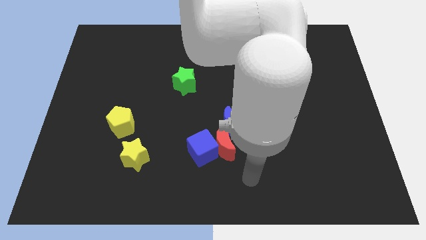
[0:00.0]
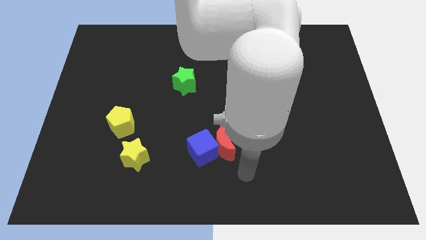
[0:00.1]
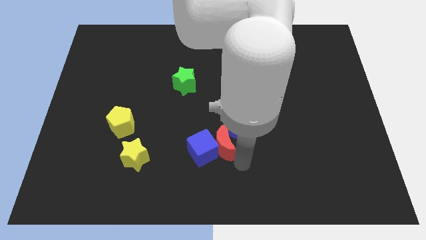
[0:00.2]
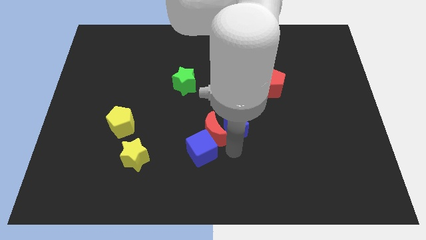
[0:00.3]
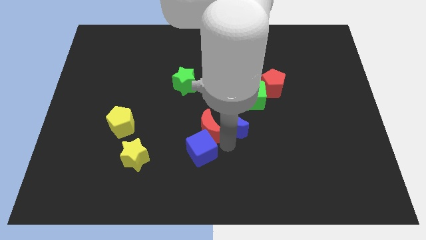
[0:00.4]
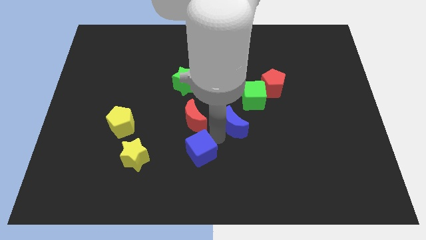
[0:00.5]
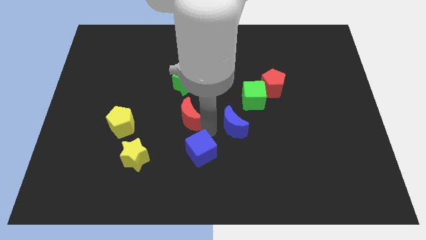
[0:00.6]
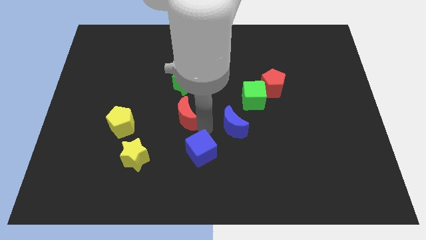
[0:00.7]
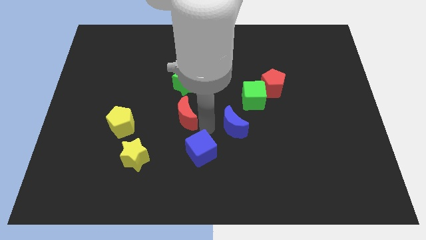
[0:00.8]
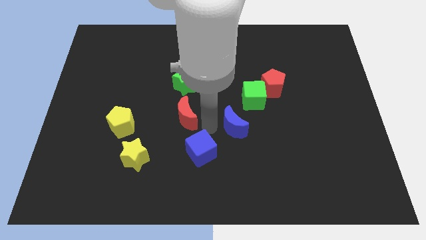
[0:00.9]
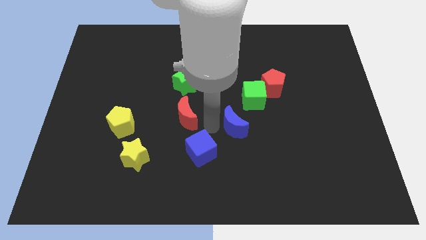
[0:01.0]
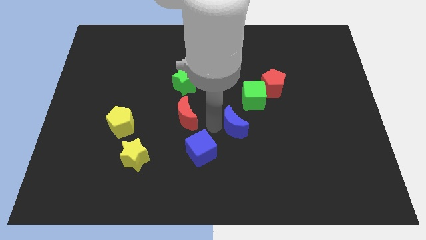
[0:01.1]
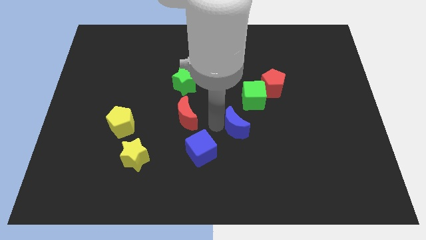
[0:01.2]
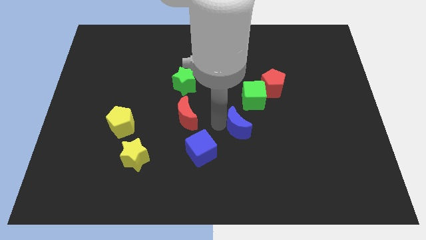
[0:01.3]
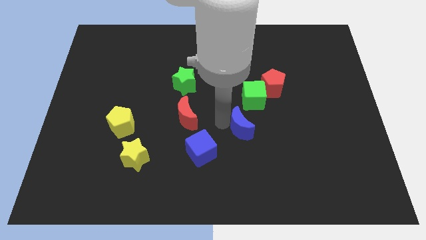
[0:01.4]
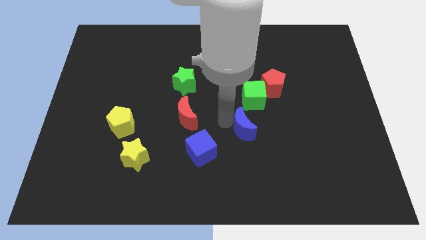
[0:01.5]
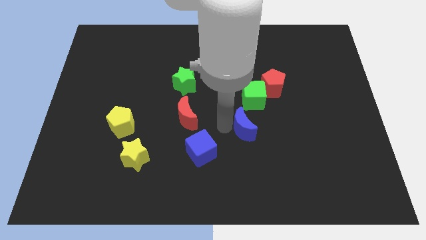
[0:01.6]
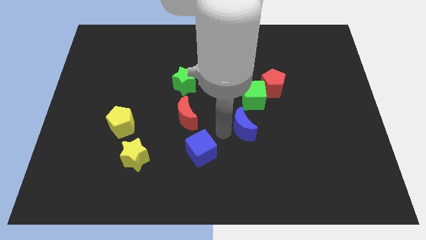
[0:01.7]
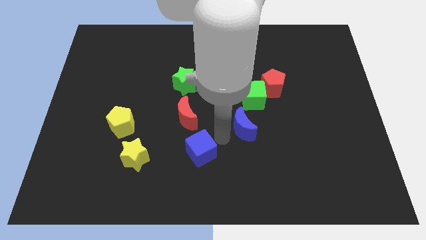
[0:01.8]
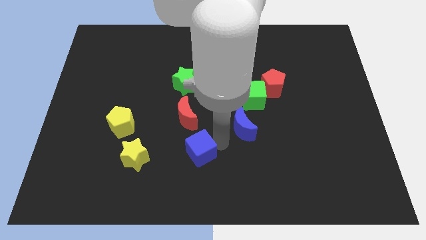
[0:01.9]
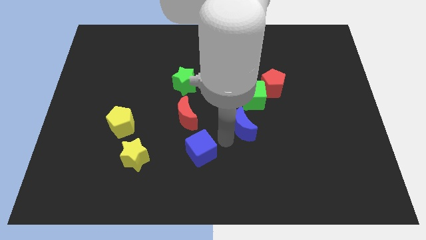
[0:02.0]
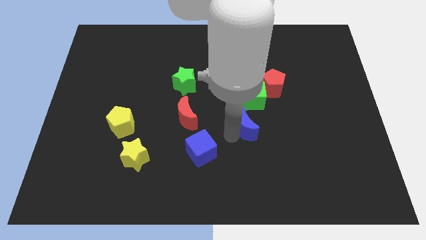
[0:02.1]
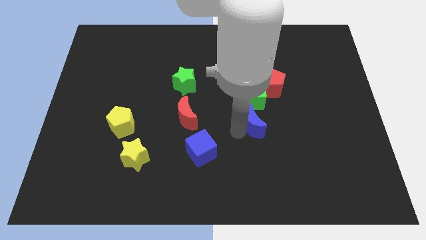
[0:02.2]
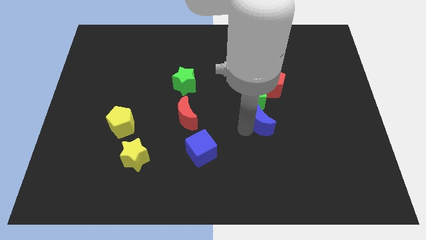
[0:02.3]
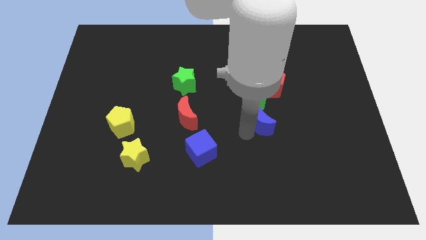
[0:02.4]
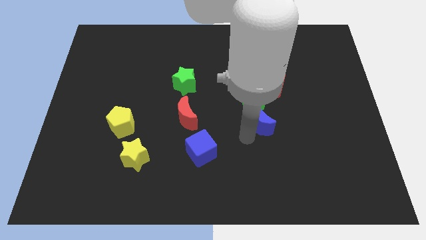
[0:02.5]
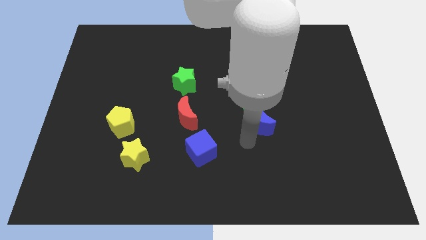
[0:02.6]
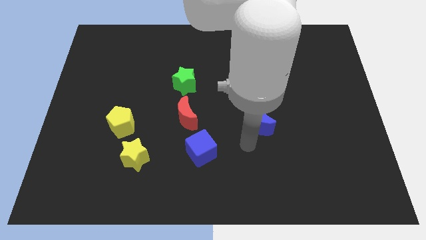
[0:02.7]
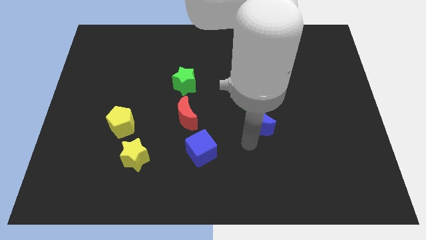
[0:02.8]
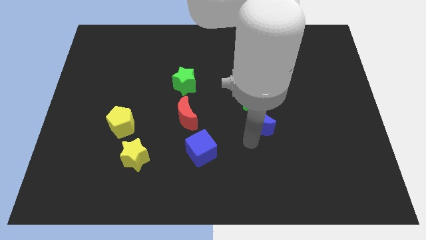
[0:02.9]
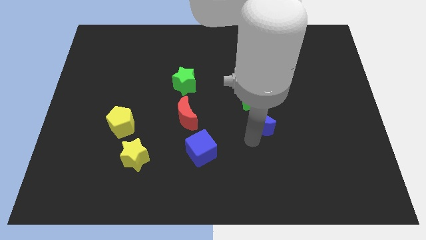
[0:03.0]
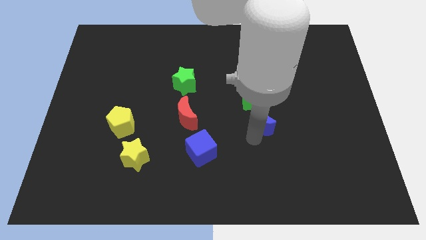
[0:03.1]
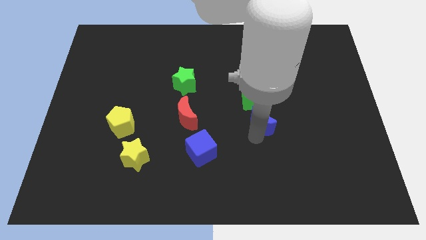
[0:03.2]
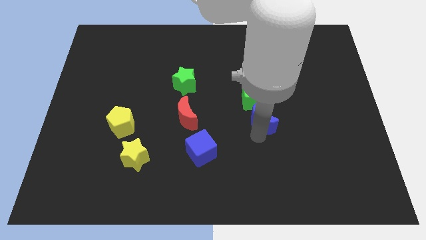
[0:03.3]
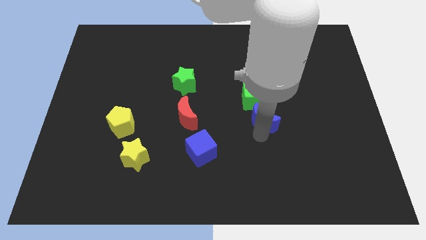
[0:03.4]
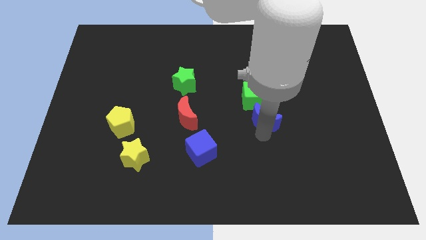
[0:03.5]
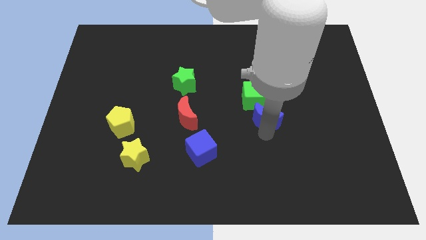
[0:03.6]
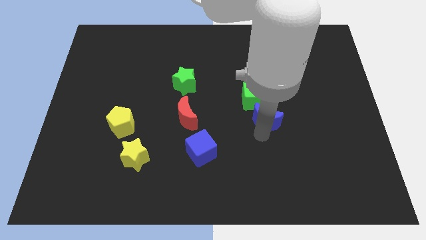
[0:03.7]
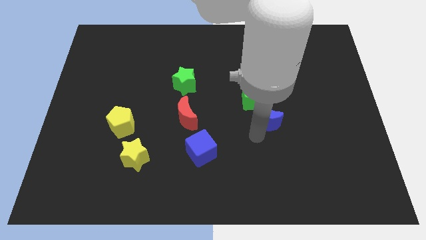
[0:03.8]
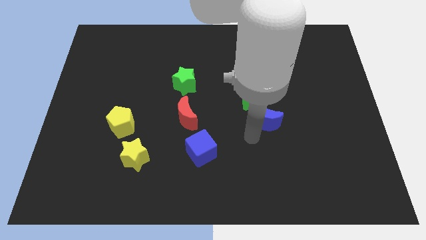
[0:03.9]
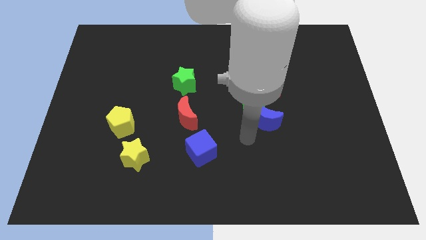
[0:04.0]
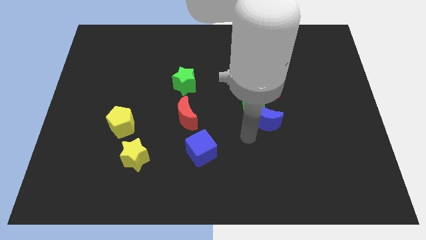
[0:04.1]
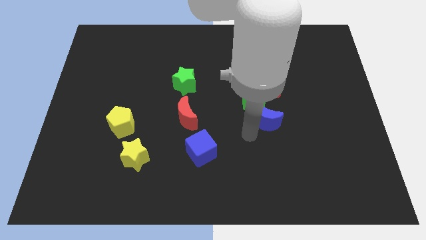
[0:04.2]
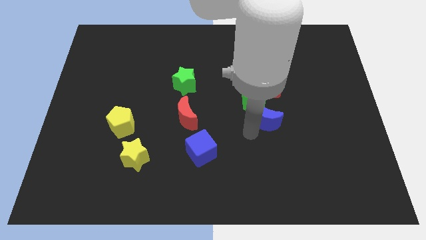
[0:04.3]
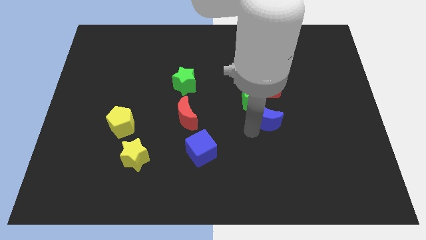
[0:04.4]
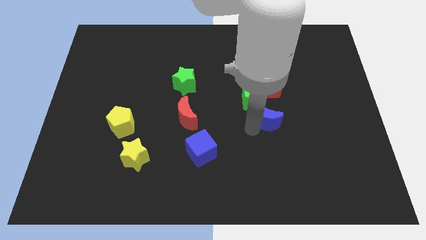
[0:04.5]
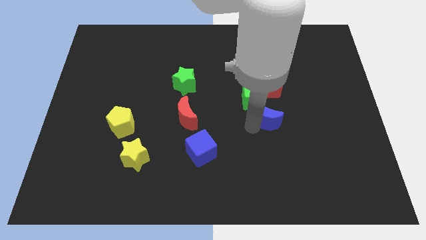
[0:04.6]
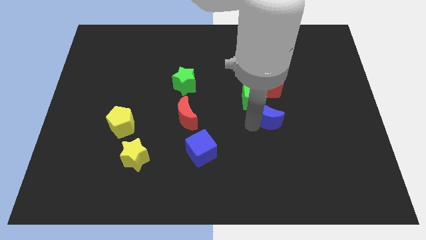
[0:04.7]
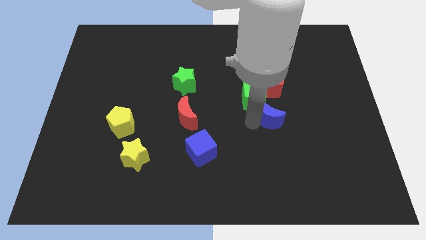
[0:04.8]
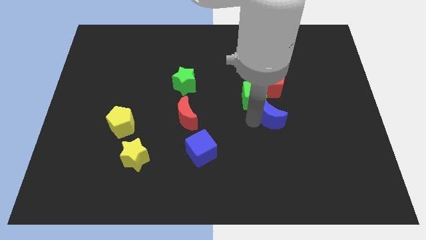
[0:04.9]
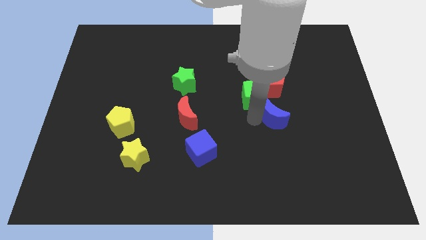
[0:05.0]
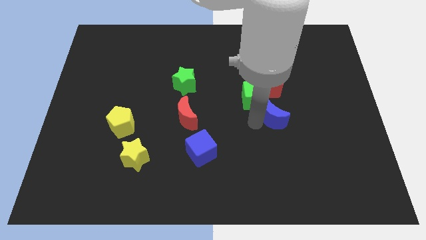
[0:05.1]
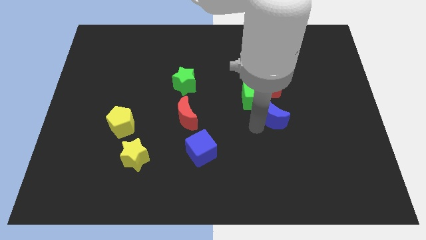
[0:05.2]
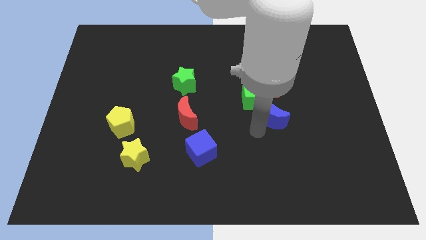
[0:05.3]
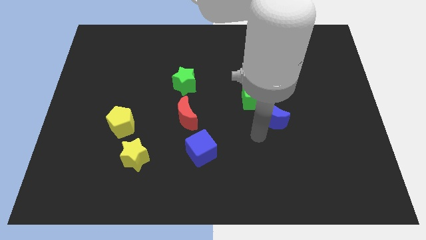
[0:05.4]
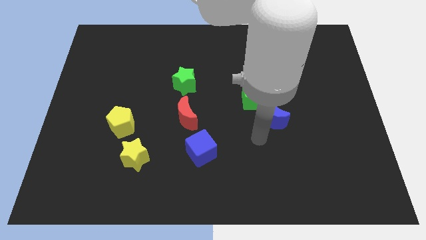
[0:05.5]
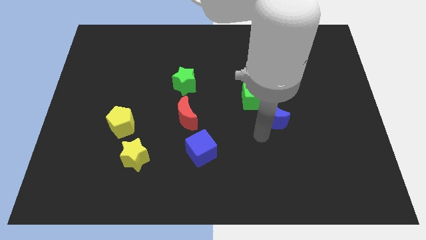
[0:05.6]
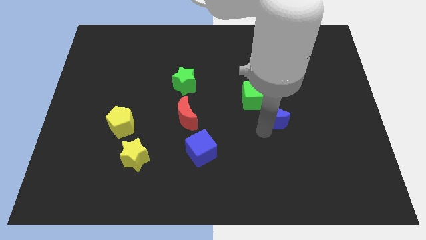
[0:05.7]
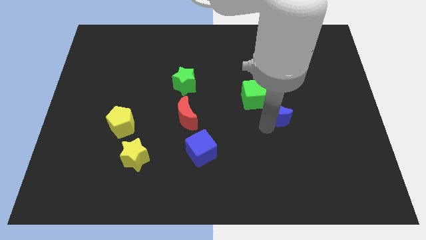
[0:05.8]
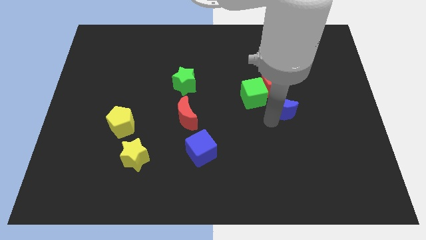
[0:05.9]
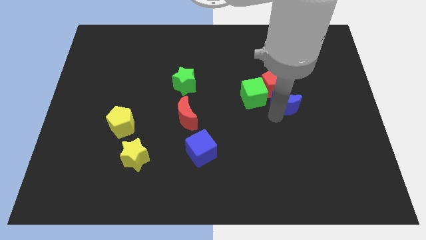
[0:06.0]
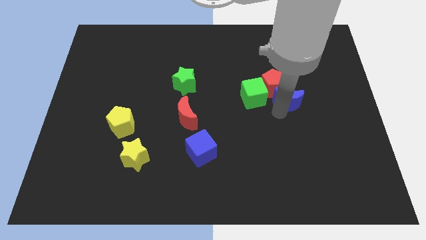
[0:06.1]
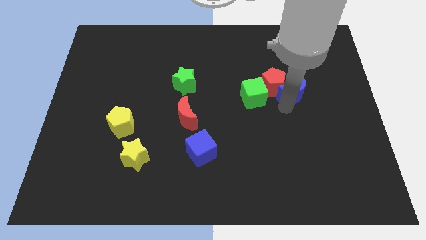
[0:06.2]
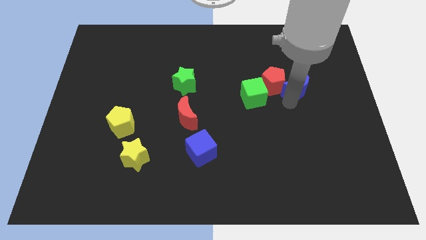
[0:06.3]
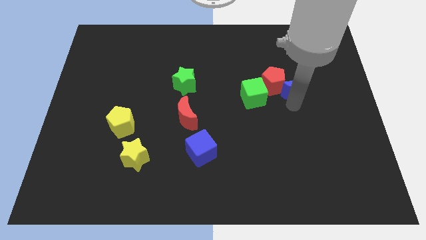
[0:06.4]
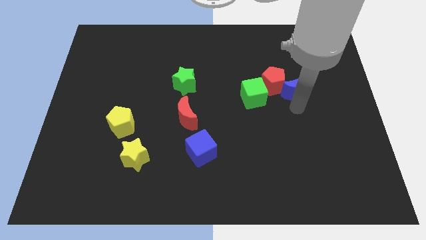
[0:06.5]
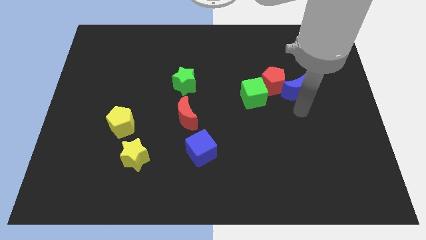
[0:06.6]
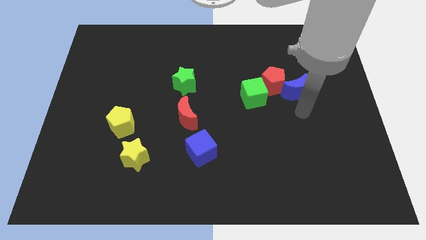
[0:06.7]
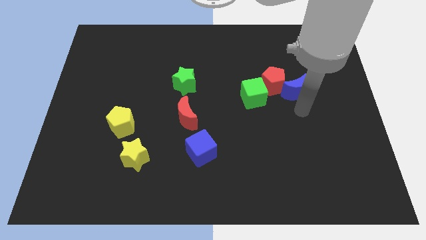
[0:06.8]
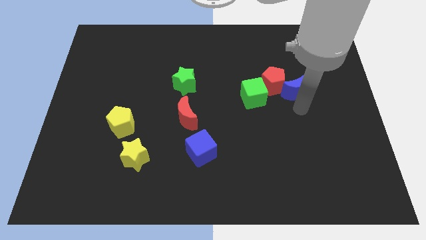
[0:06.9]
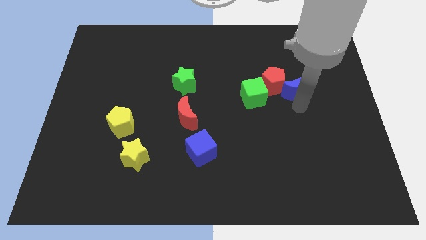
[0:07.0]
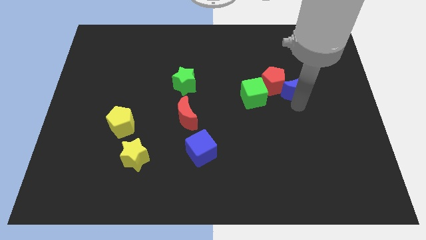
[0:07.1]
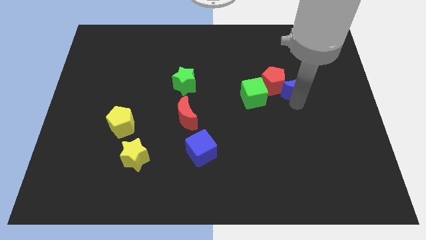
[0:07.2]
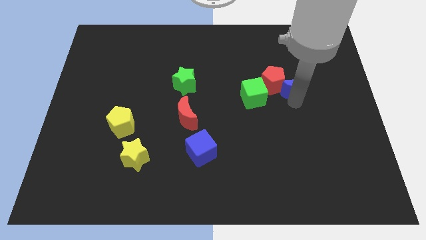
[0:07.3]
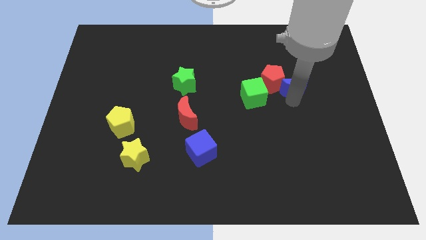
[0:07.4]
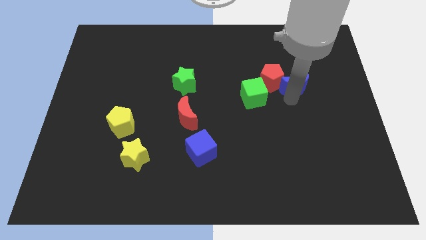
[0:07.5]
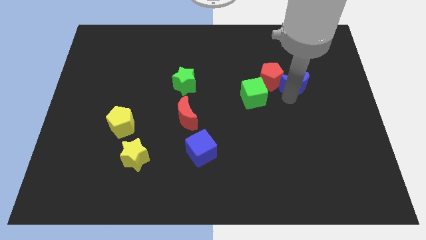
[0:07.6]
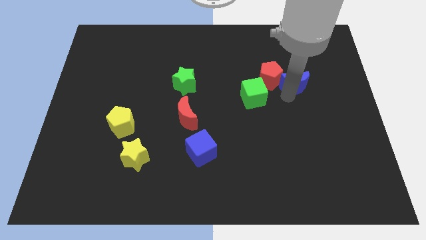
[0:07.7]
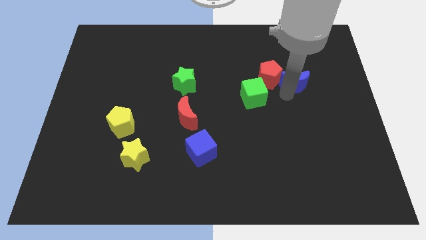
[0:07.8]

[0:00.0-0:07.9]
put the blue moon diagonally up and to the right of the green cube
